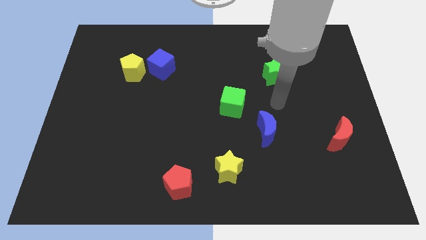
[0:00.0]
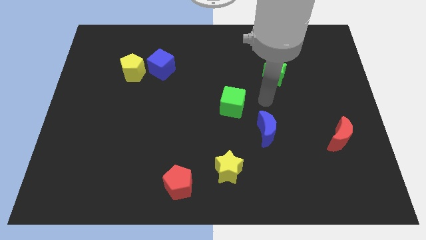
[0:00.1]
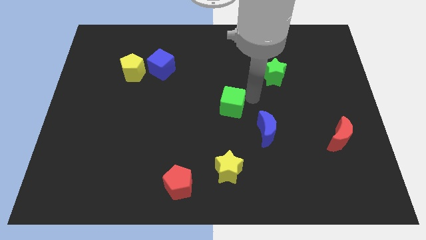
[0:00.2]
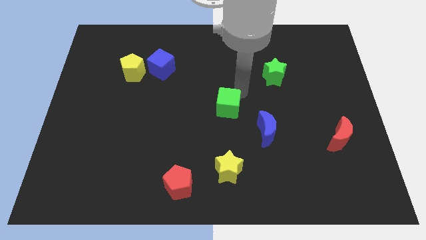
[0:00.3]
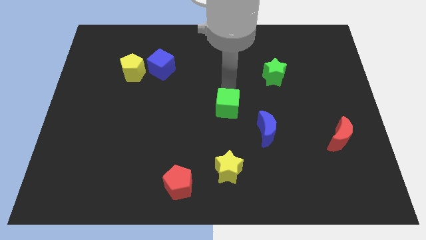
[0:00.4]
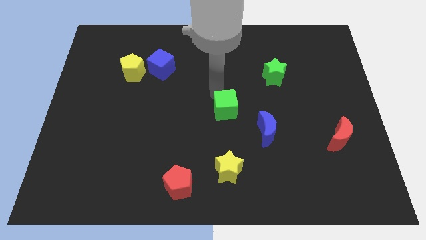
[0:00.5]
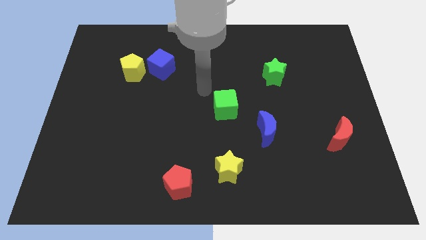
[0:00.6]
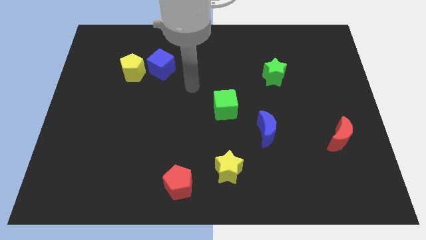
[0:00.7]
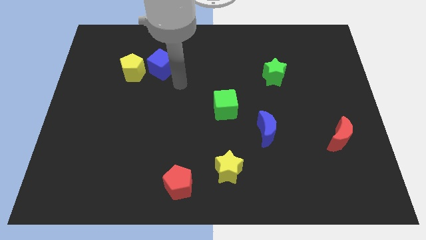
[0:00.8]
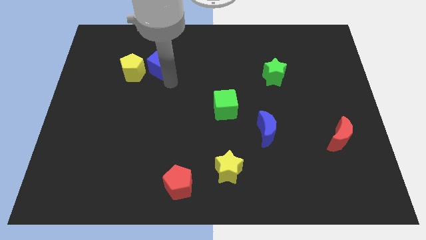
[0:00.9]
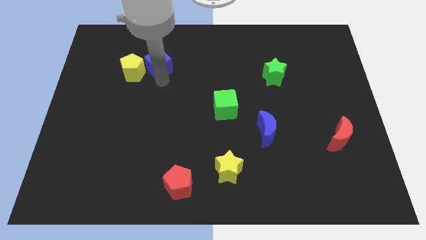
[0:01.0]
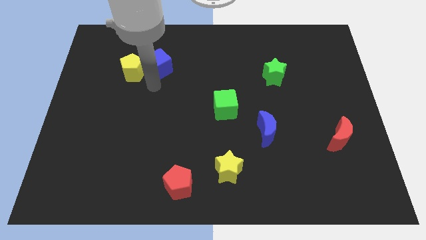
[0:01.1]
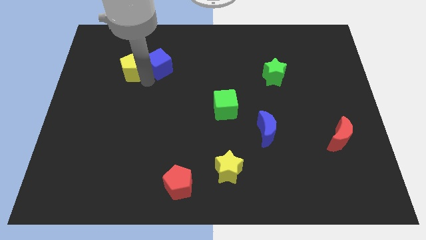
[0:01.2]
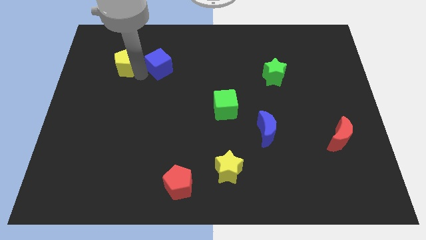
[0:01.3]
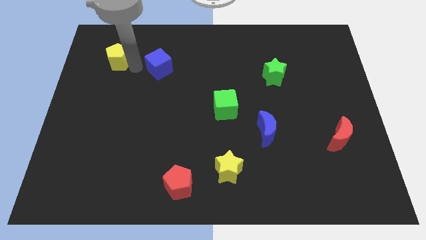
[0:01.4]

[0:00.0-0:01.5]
pull the blue cube apart from the yellow pentagon

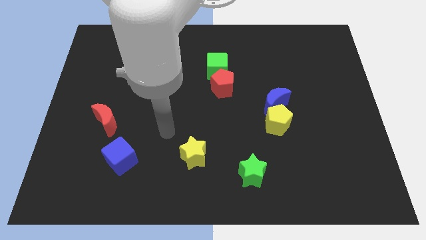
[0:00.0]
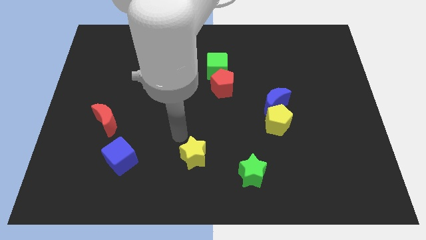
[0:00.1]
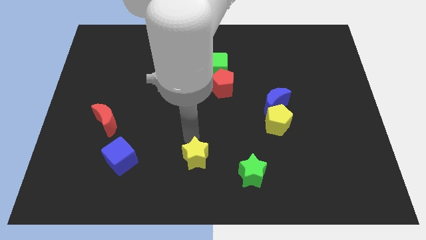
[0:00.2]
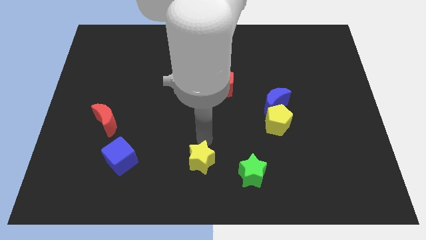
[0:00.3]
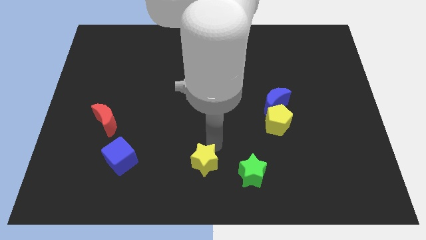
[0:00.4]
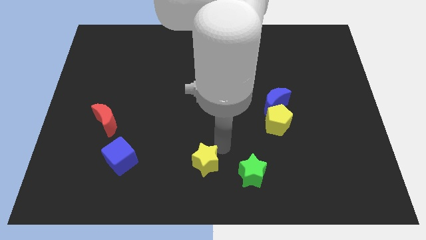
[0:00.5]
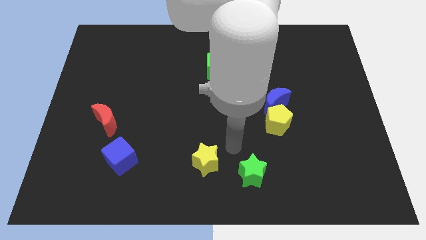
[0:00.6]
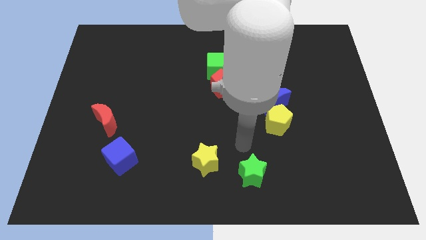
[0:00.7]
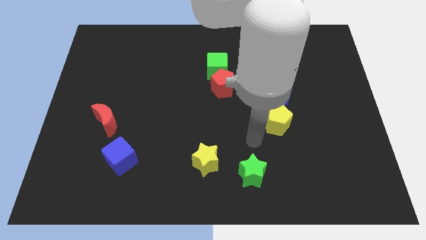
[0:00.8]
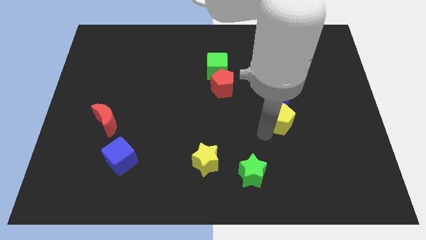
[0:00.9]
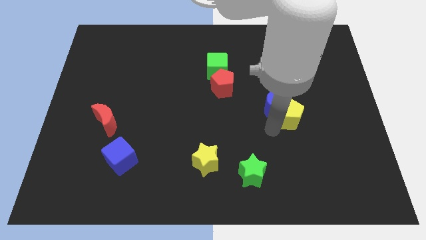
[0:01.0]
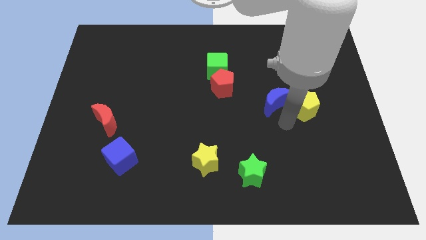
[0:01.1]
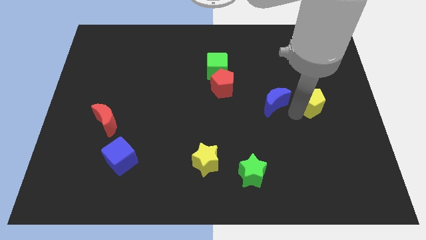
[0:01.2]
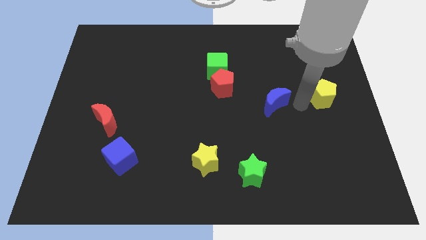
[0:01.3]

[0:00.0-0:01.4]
pull the blue moon apart from the yellow pentagon

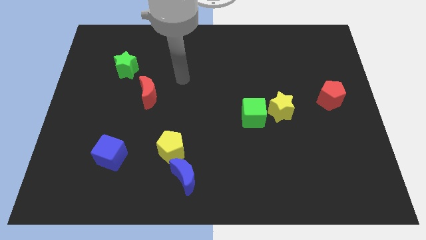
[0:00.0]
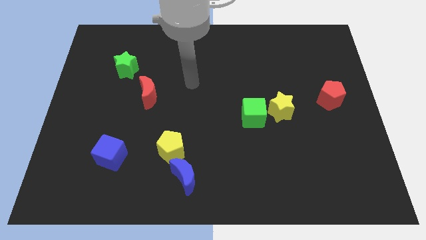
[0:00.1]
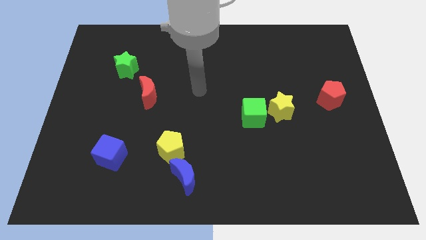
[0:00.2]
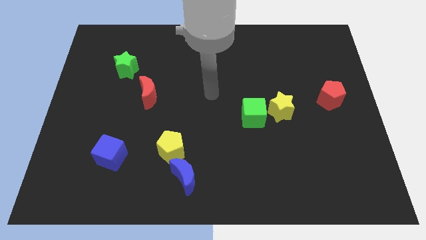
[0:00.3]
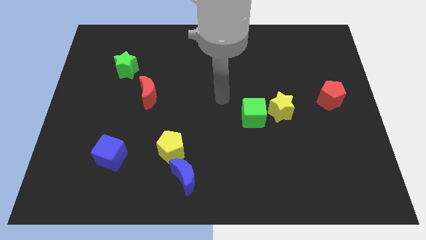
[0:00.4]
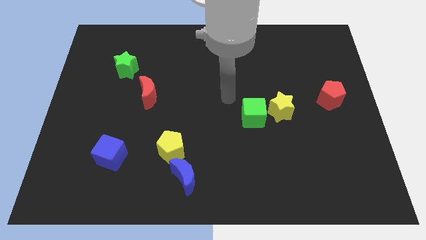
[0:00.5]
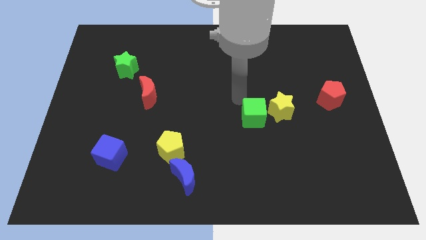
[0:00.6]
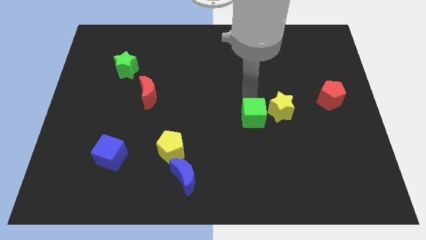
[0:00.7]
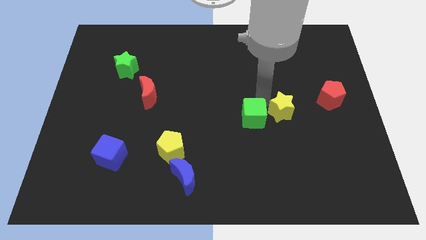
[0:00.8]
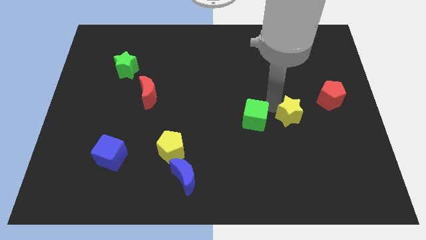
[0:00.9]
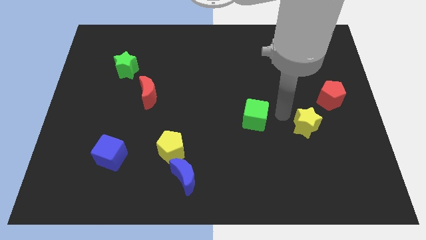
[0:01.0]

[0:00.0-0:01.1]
move the green cube away from the yellow star

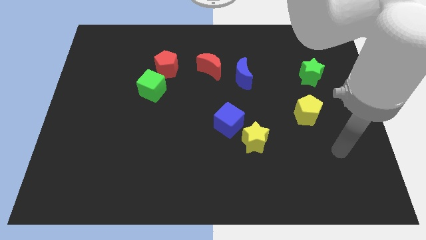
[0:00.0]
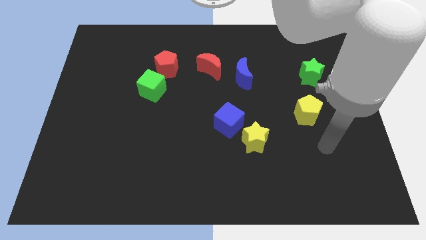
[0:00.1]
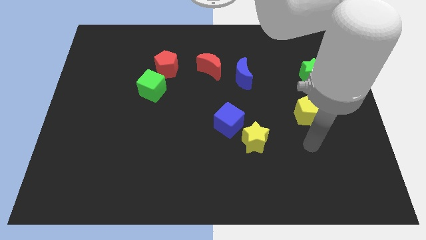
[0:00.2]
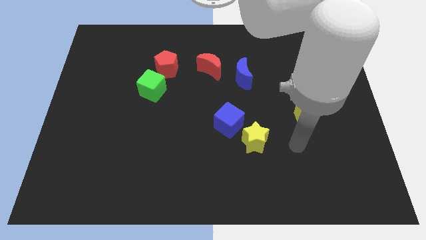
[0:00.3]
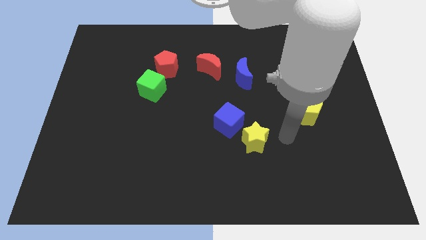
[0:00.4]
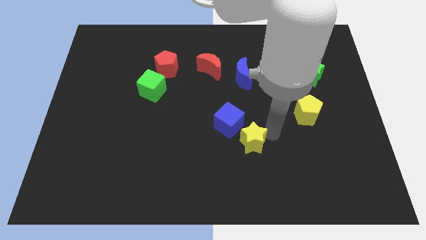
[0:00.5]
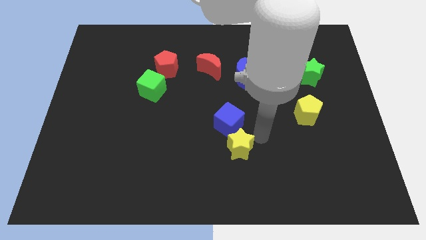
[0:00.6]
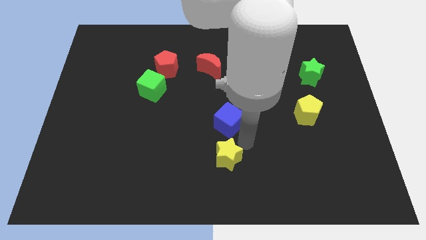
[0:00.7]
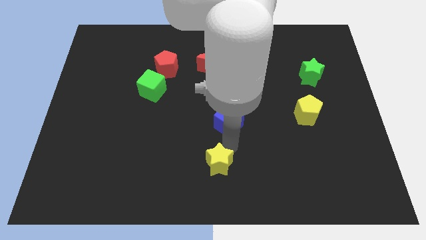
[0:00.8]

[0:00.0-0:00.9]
move the blue cube away from the yellow star

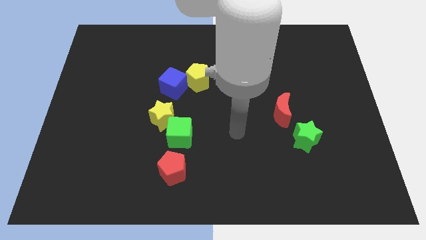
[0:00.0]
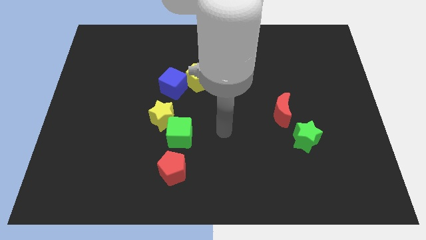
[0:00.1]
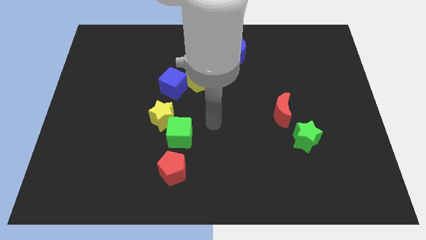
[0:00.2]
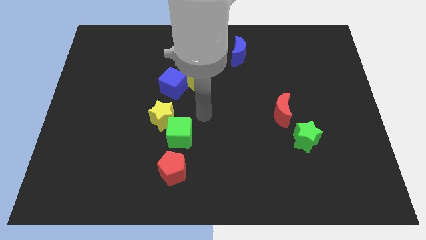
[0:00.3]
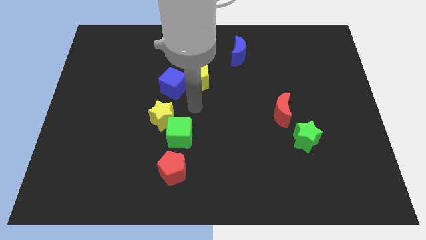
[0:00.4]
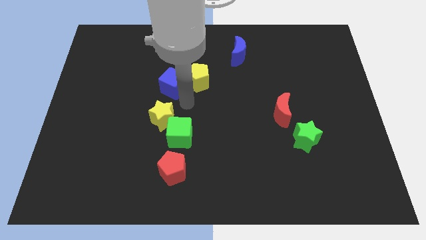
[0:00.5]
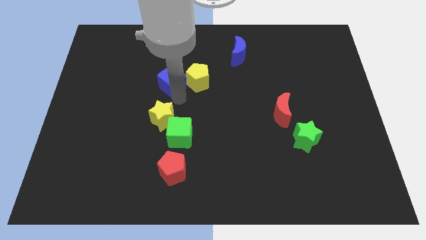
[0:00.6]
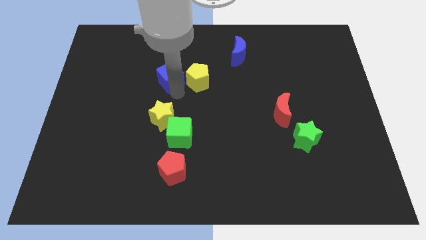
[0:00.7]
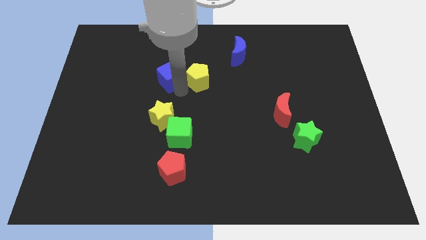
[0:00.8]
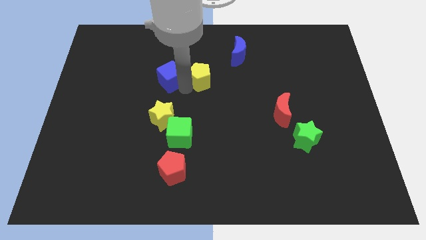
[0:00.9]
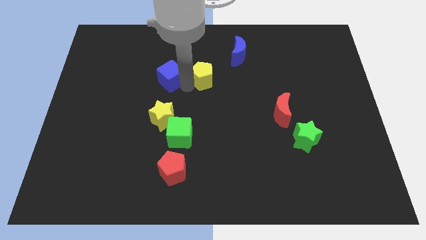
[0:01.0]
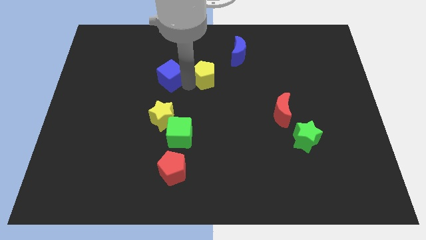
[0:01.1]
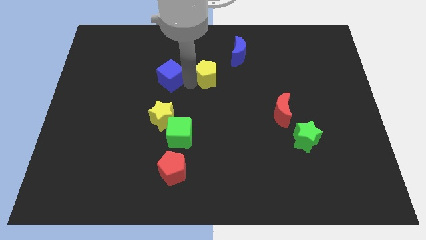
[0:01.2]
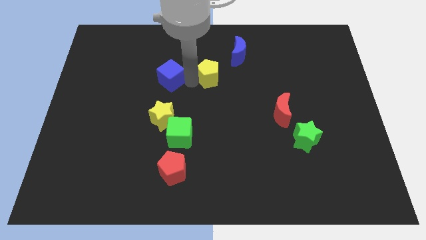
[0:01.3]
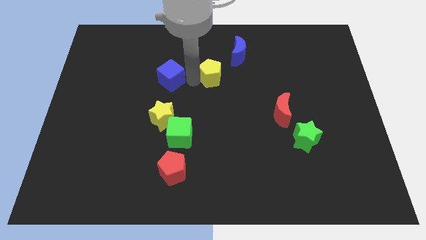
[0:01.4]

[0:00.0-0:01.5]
separate the yellow pentagon from the blue cube

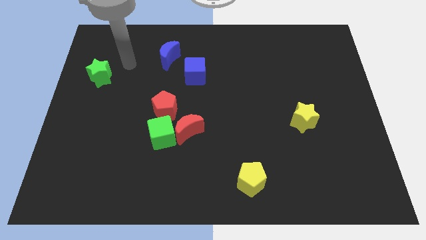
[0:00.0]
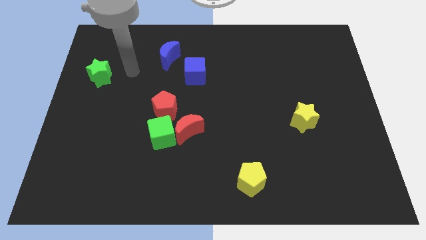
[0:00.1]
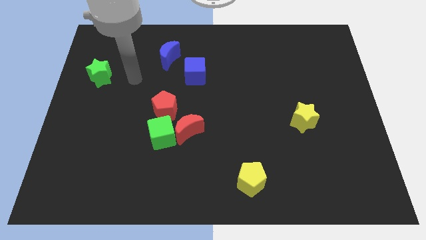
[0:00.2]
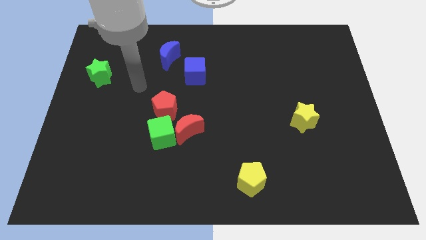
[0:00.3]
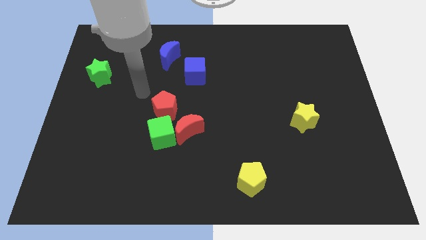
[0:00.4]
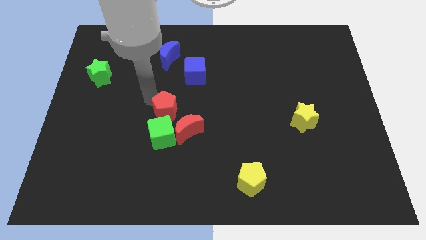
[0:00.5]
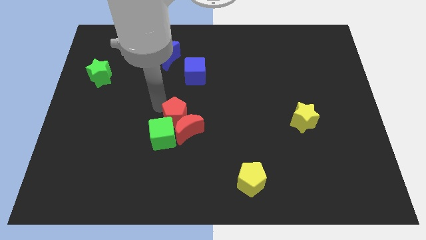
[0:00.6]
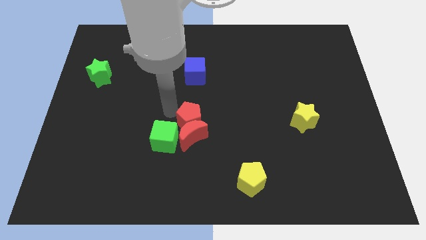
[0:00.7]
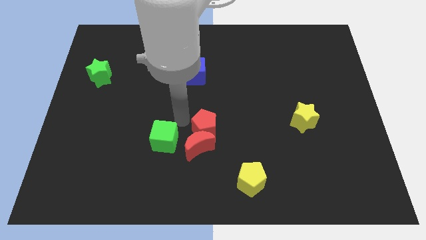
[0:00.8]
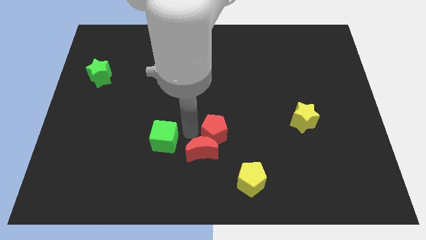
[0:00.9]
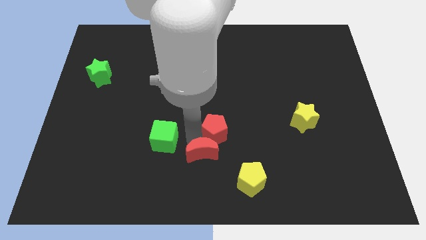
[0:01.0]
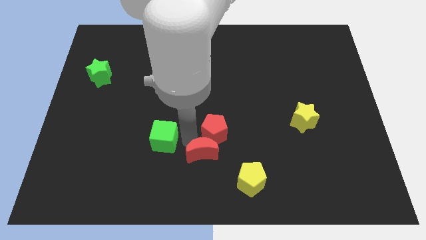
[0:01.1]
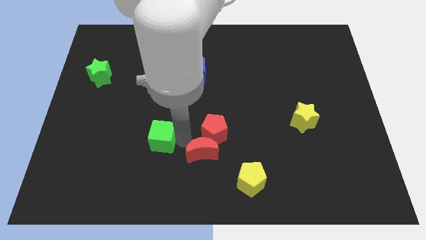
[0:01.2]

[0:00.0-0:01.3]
pull the green cube apart from the red moon and red pentagon

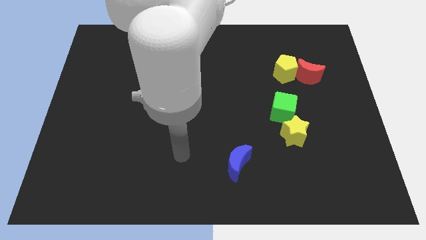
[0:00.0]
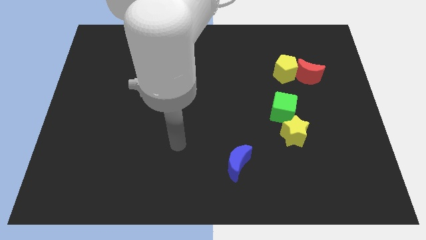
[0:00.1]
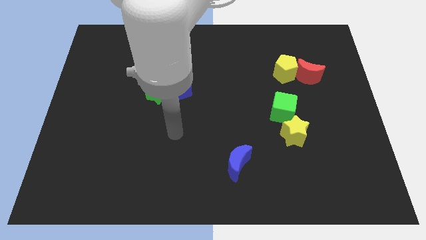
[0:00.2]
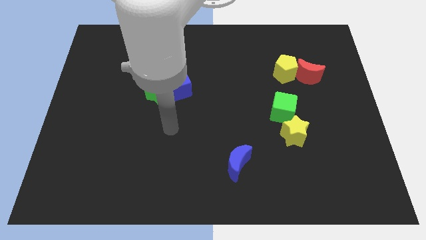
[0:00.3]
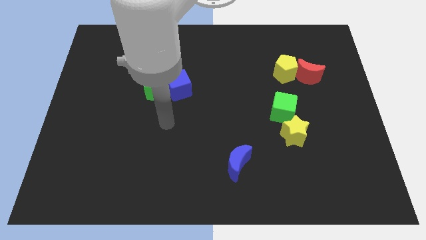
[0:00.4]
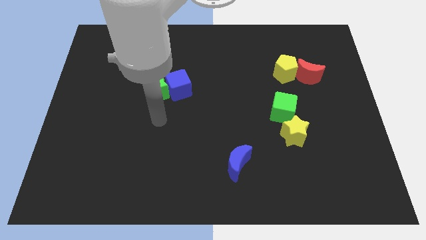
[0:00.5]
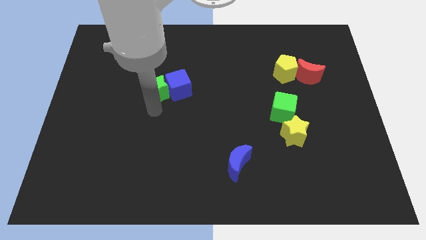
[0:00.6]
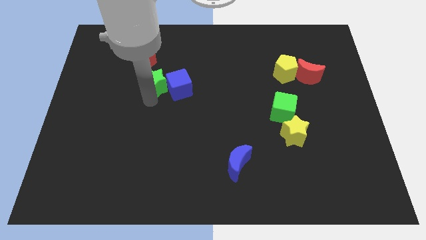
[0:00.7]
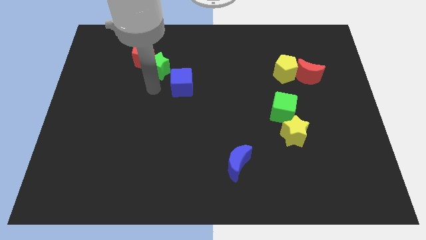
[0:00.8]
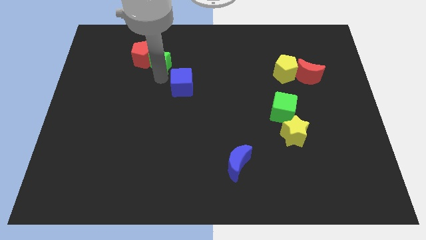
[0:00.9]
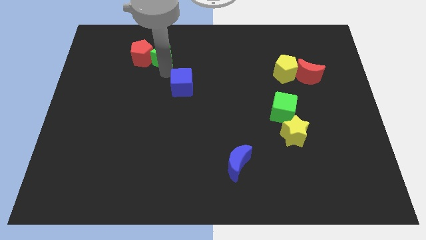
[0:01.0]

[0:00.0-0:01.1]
pull the blue cube apart from the green star

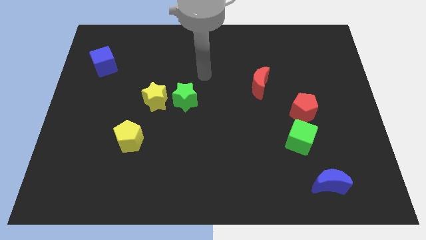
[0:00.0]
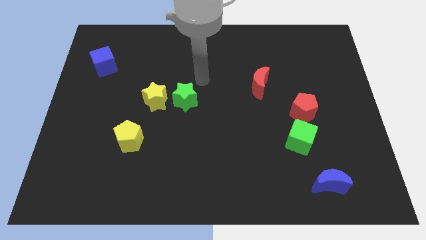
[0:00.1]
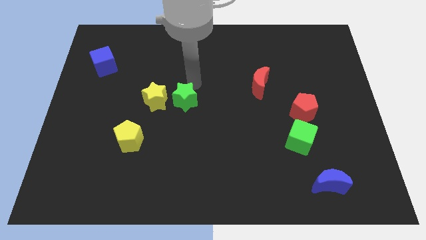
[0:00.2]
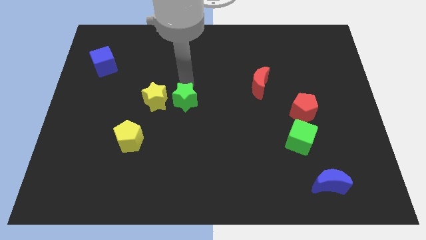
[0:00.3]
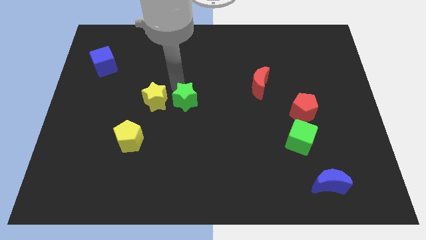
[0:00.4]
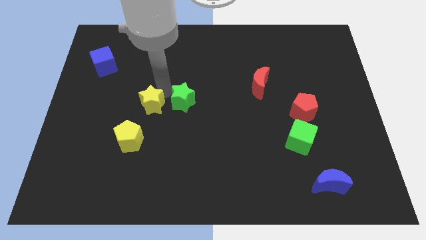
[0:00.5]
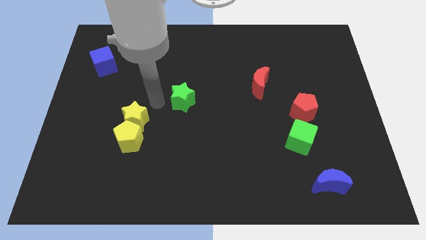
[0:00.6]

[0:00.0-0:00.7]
move the green star away from the yellow star
